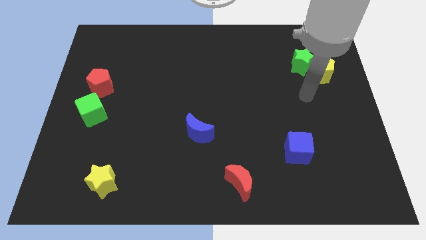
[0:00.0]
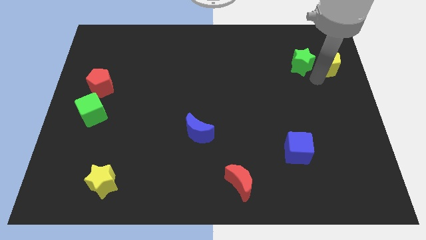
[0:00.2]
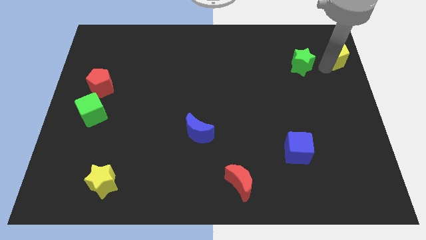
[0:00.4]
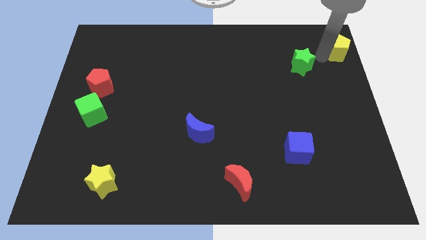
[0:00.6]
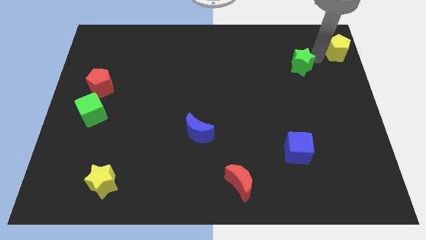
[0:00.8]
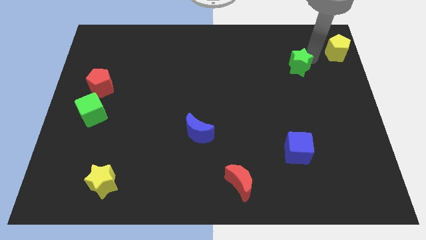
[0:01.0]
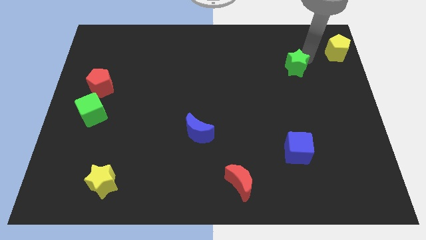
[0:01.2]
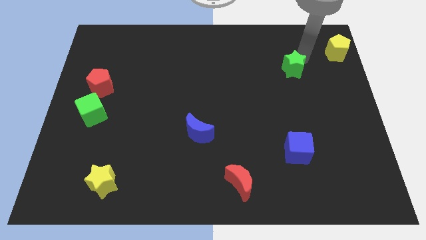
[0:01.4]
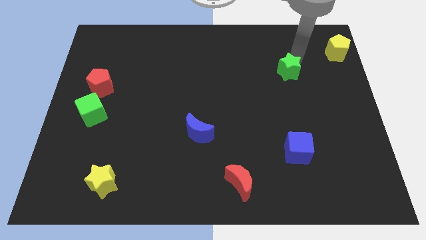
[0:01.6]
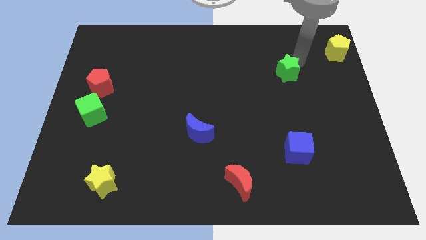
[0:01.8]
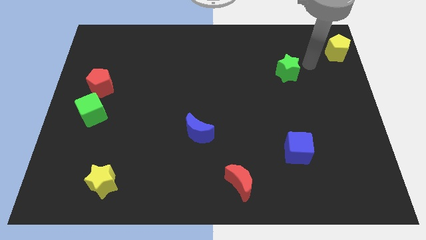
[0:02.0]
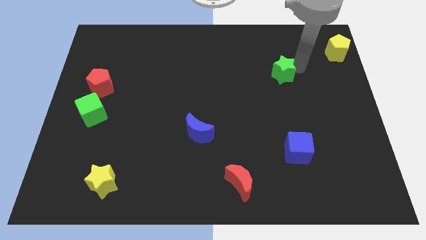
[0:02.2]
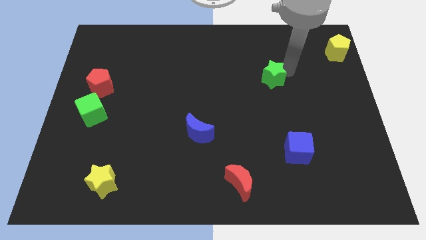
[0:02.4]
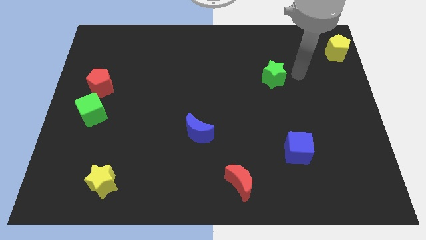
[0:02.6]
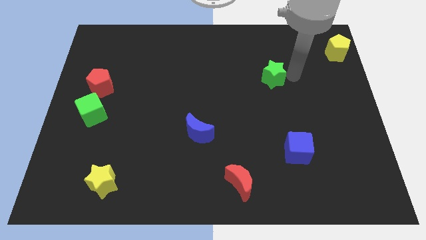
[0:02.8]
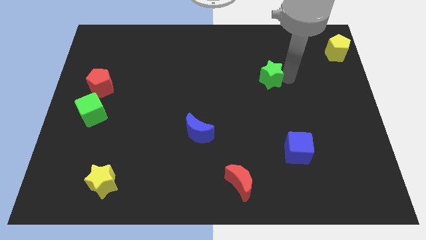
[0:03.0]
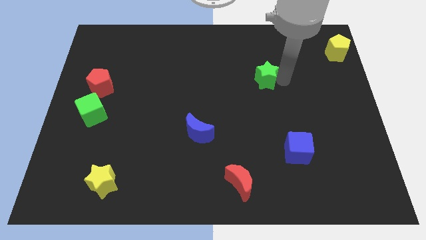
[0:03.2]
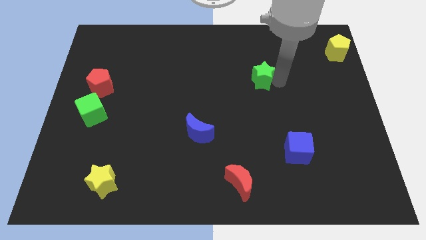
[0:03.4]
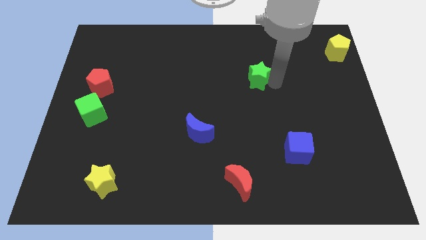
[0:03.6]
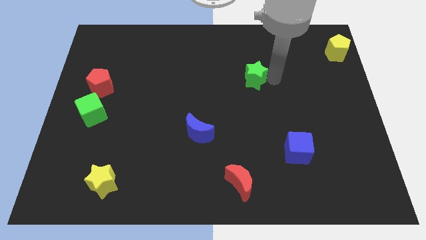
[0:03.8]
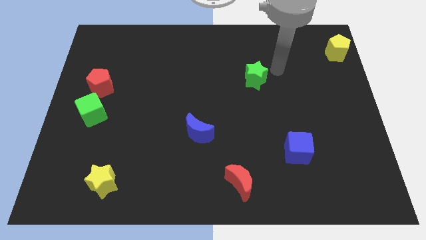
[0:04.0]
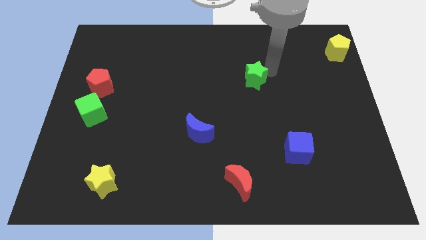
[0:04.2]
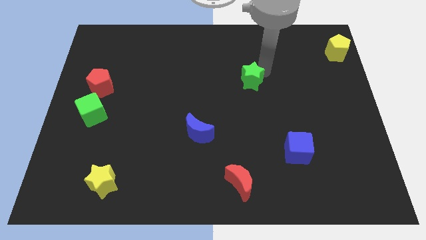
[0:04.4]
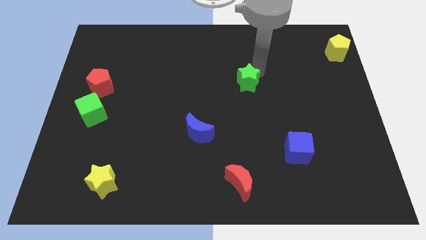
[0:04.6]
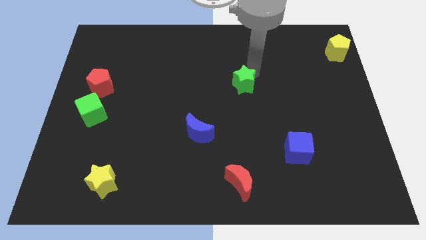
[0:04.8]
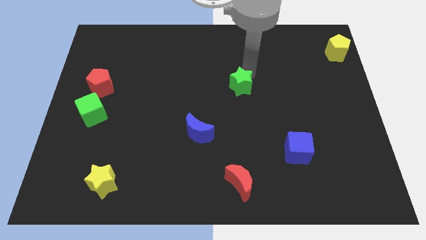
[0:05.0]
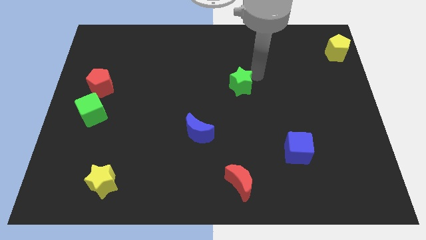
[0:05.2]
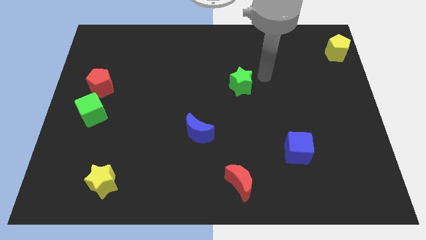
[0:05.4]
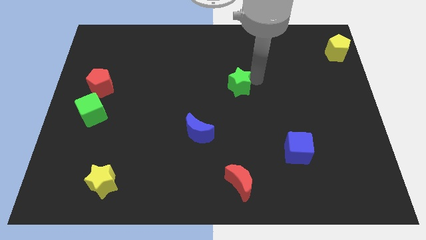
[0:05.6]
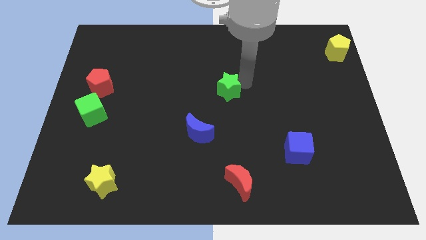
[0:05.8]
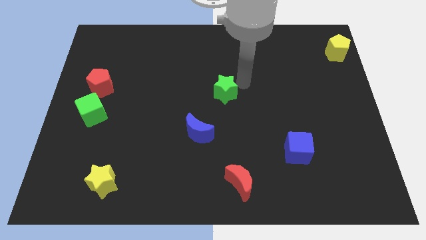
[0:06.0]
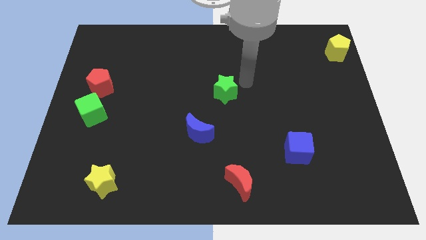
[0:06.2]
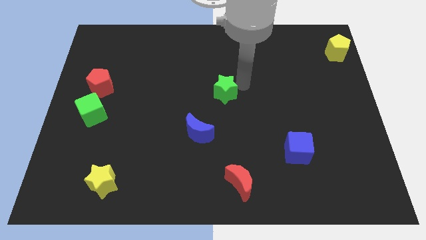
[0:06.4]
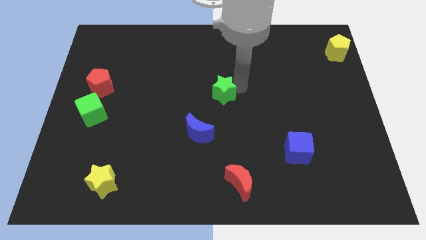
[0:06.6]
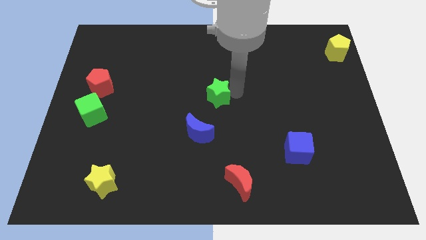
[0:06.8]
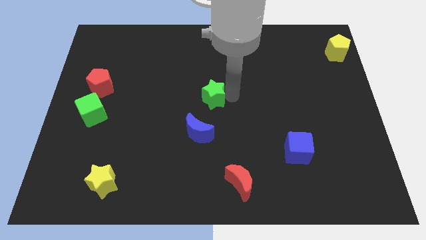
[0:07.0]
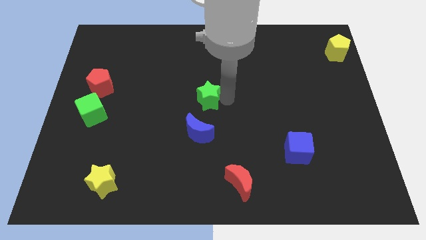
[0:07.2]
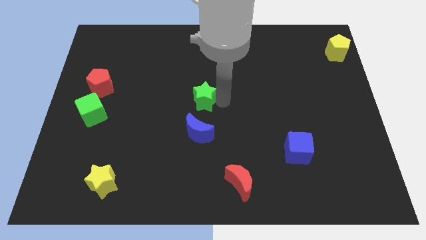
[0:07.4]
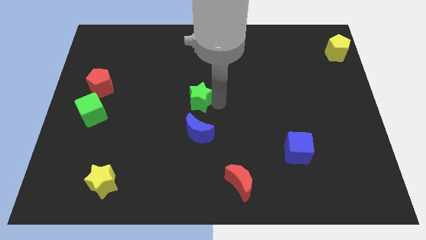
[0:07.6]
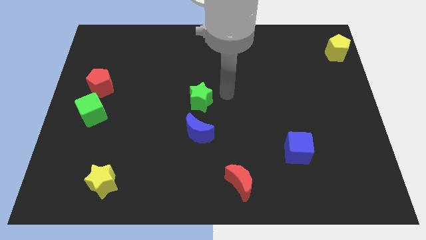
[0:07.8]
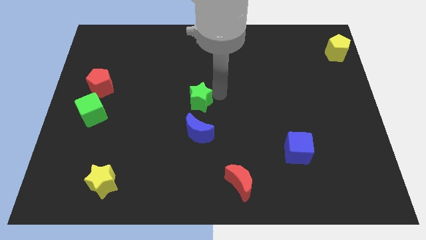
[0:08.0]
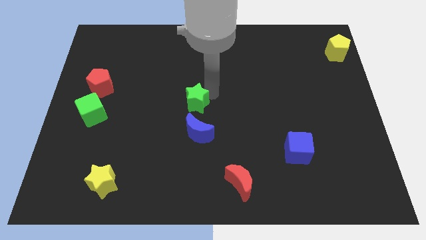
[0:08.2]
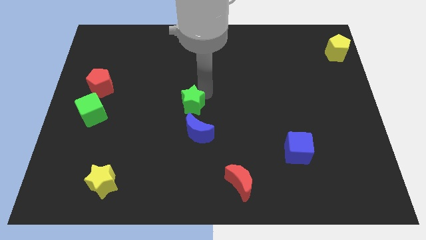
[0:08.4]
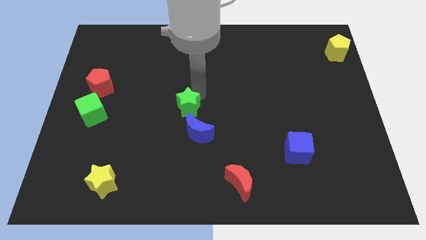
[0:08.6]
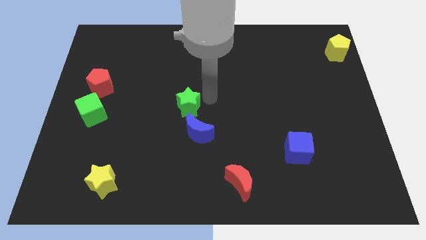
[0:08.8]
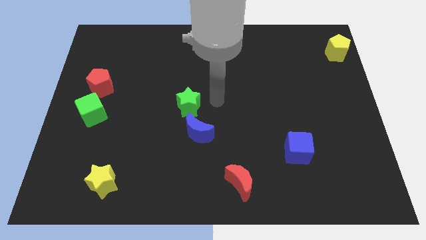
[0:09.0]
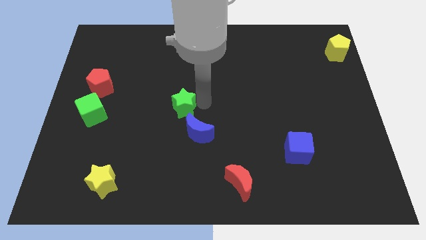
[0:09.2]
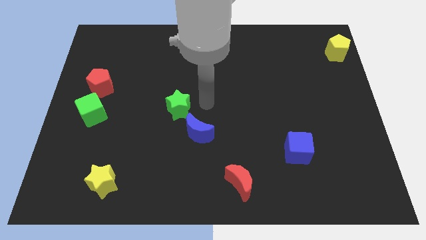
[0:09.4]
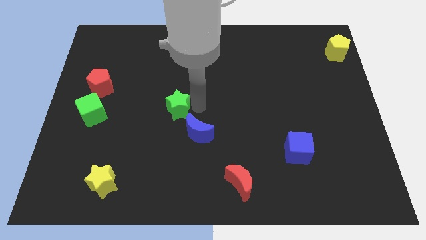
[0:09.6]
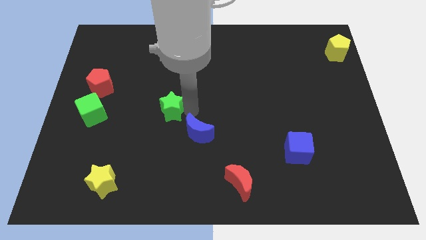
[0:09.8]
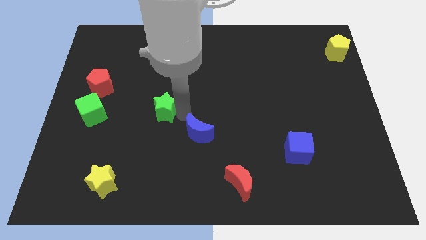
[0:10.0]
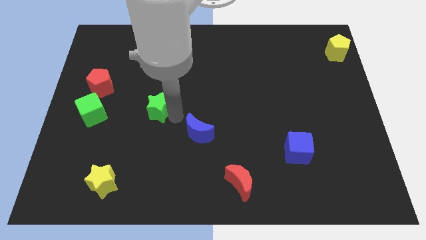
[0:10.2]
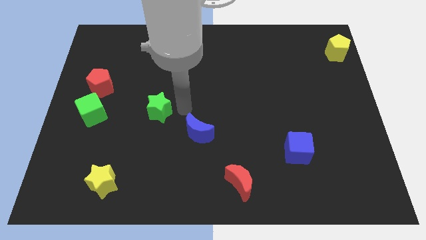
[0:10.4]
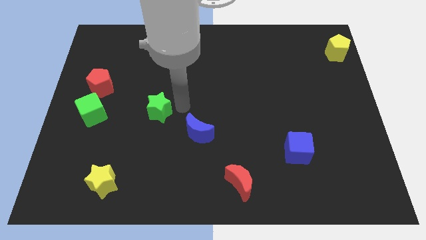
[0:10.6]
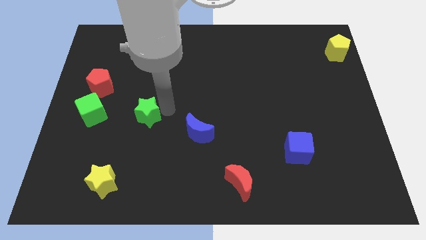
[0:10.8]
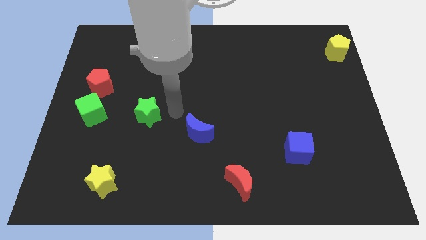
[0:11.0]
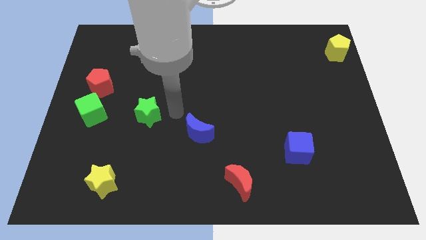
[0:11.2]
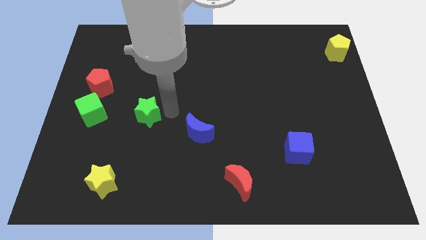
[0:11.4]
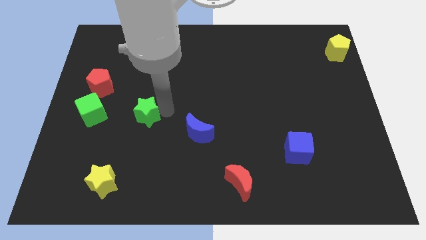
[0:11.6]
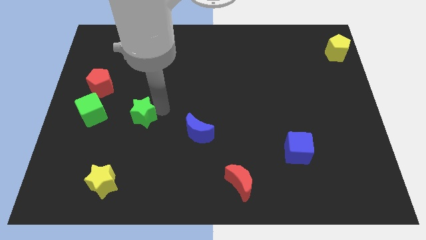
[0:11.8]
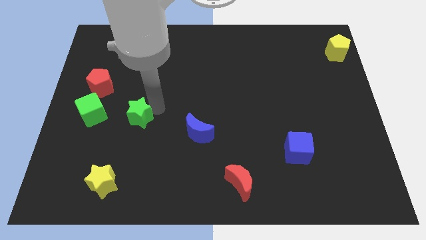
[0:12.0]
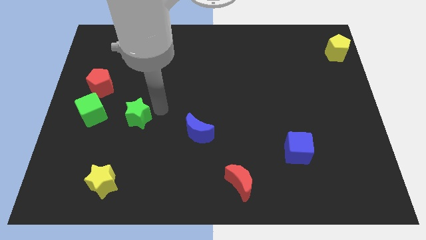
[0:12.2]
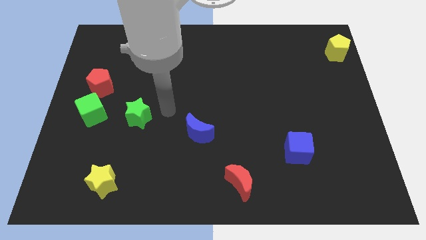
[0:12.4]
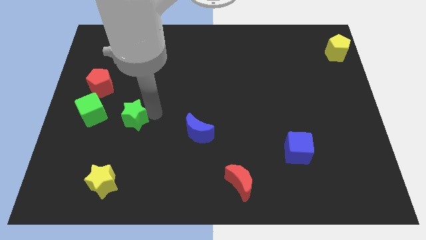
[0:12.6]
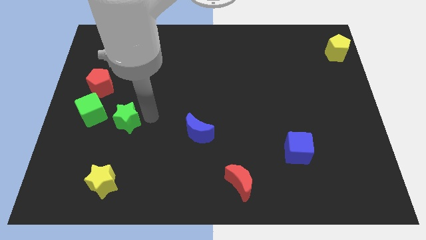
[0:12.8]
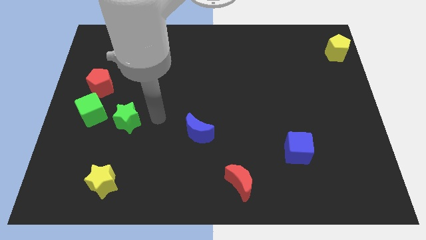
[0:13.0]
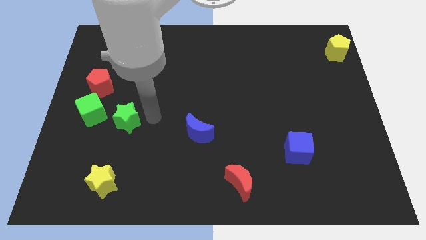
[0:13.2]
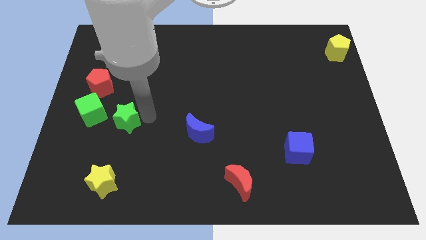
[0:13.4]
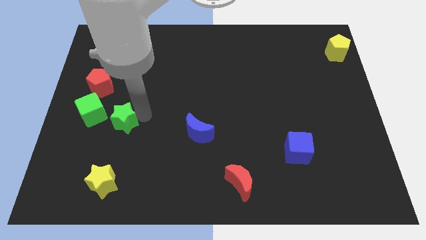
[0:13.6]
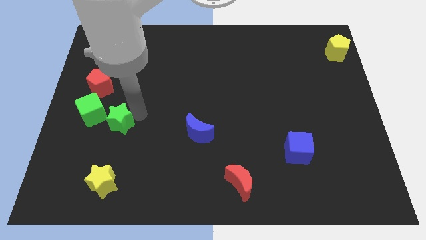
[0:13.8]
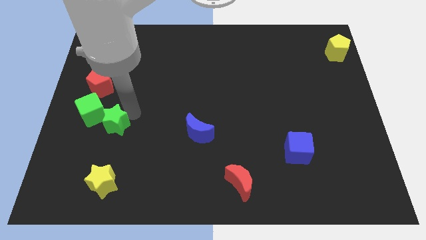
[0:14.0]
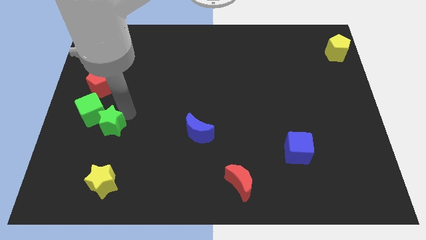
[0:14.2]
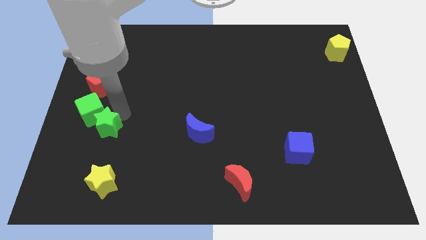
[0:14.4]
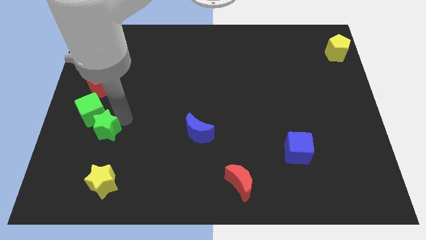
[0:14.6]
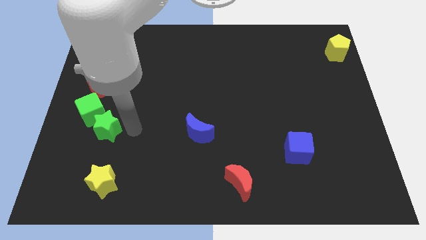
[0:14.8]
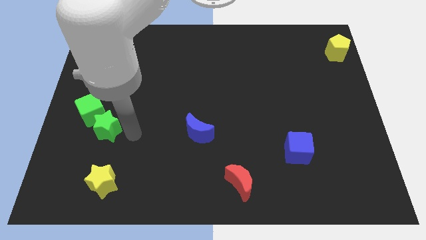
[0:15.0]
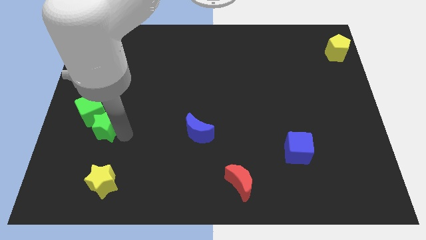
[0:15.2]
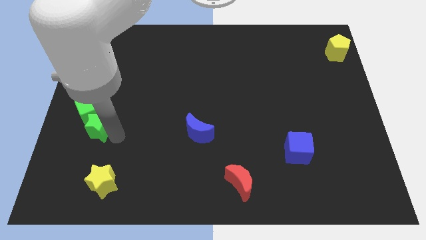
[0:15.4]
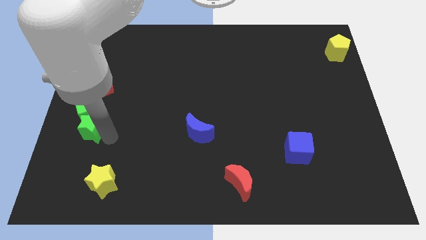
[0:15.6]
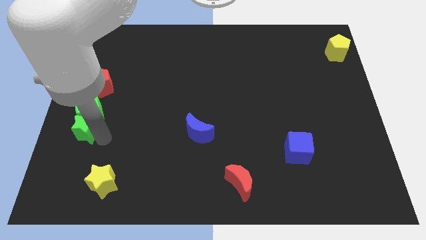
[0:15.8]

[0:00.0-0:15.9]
push the green star to the center left

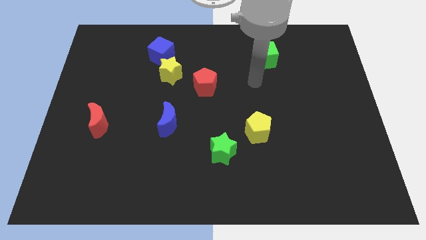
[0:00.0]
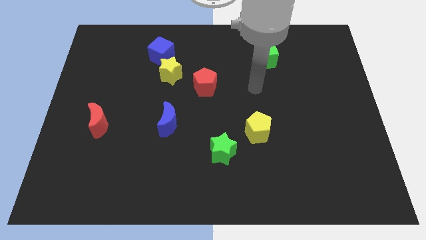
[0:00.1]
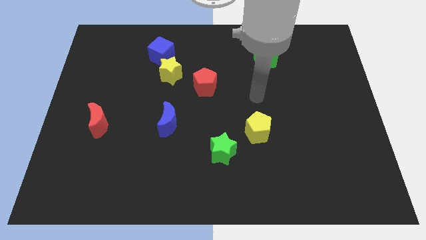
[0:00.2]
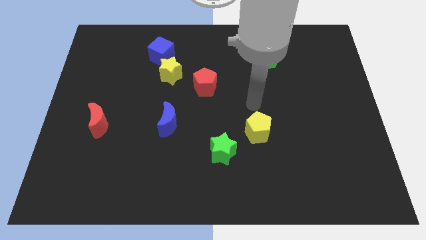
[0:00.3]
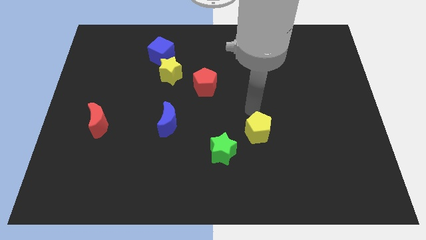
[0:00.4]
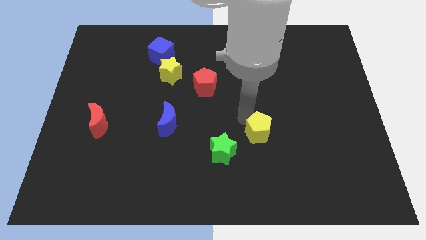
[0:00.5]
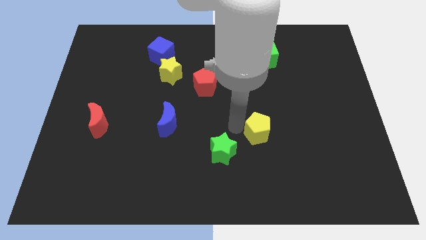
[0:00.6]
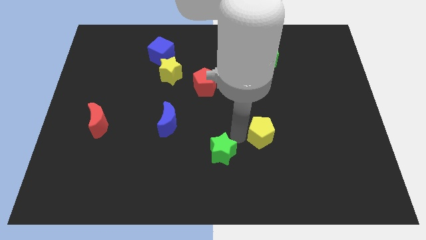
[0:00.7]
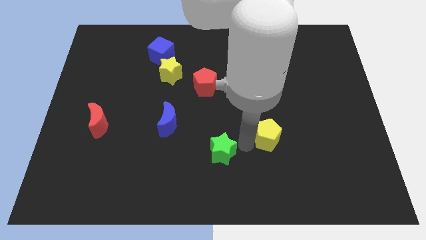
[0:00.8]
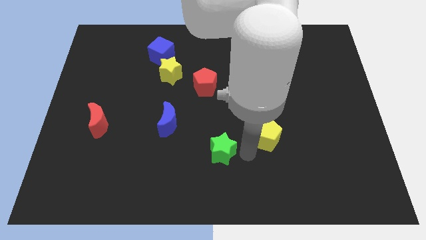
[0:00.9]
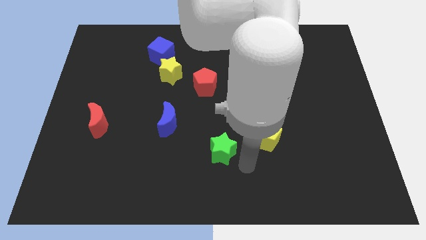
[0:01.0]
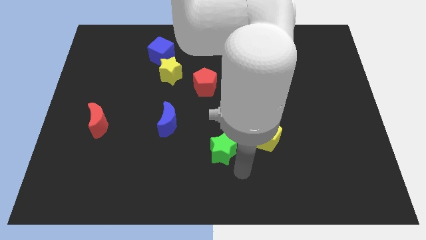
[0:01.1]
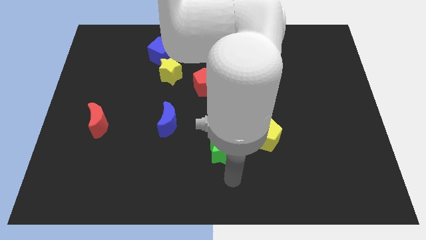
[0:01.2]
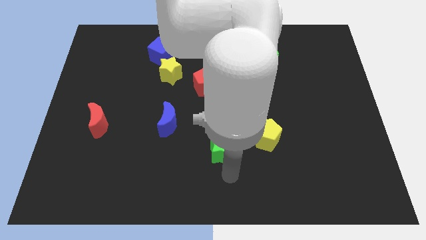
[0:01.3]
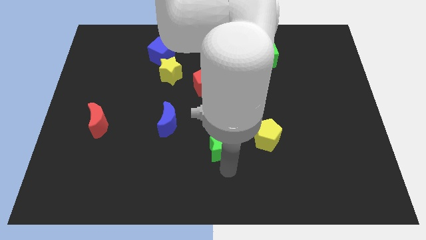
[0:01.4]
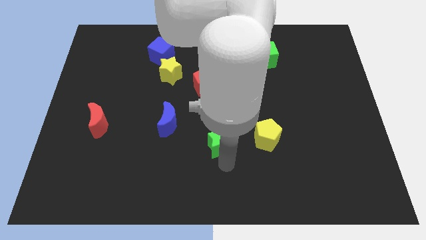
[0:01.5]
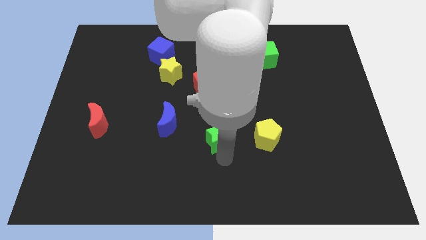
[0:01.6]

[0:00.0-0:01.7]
move the green star to the center of the board
